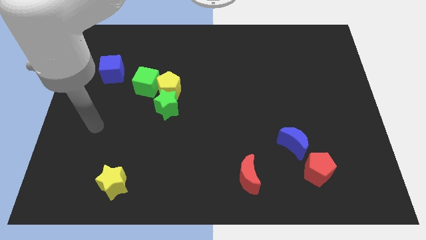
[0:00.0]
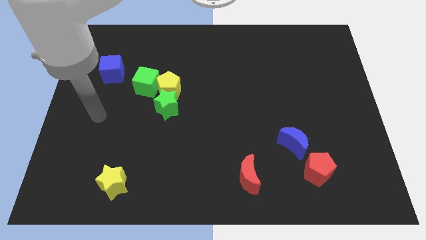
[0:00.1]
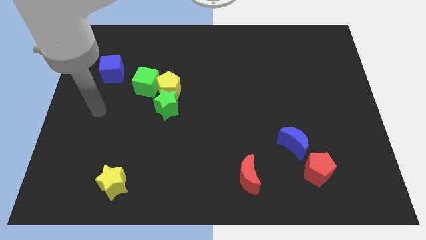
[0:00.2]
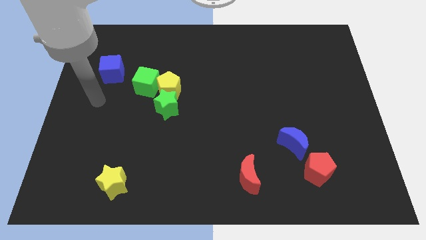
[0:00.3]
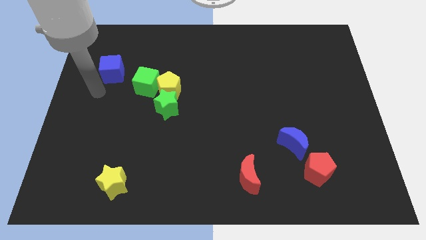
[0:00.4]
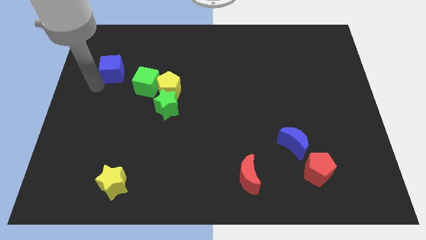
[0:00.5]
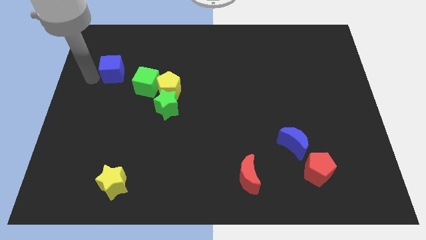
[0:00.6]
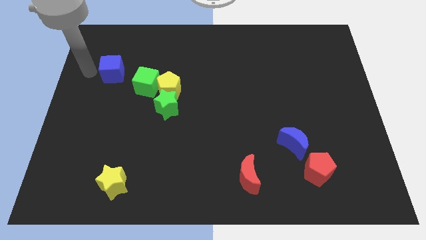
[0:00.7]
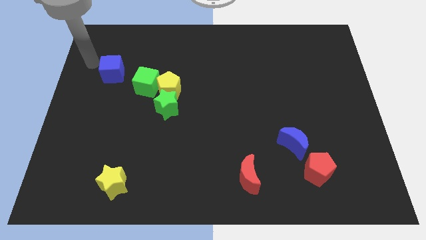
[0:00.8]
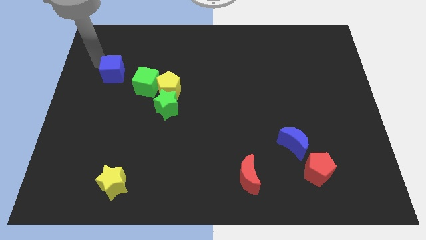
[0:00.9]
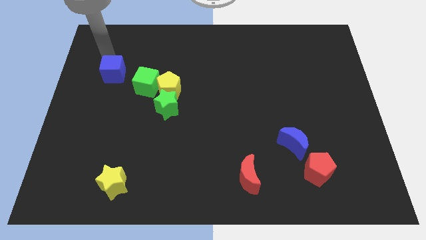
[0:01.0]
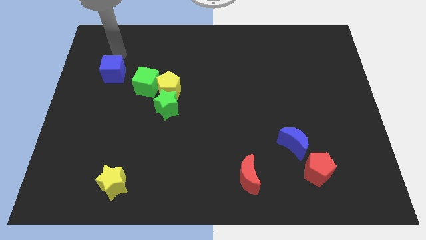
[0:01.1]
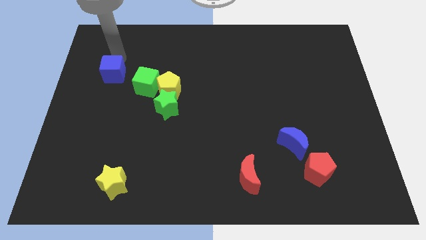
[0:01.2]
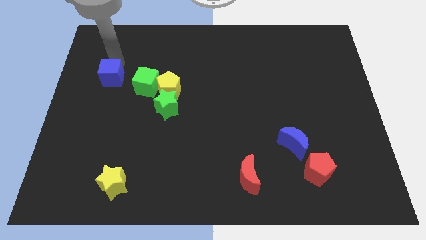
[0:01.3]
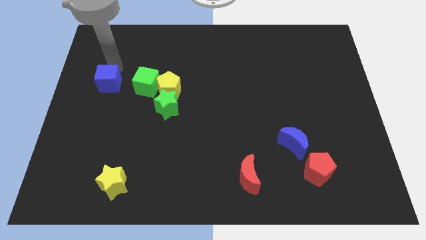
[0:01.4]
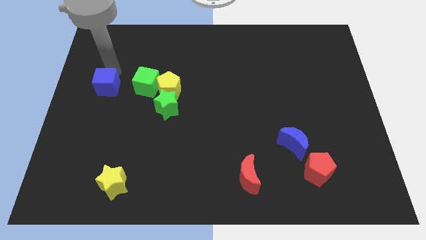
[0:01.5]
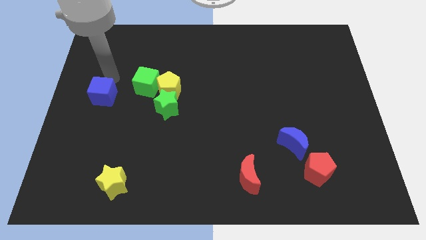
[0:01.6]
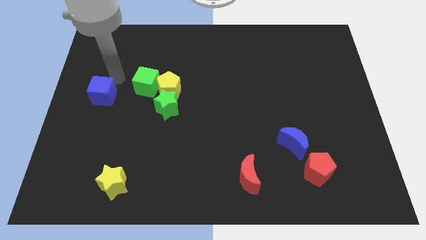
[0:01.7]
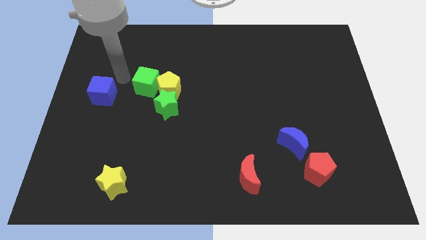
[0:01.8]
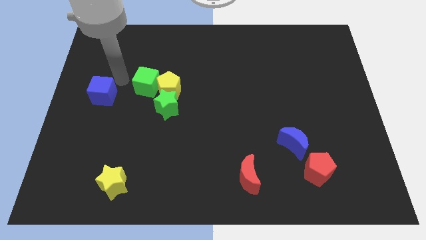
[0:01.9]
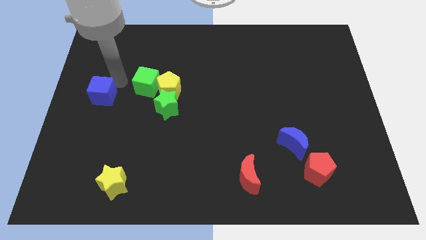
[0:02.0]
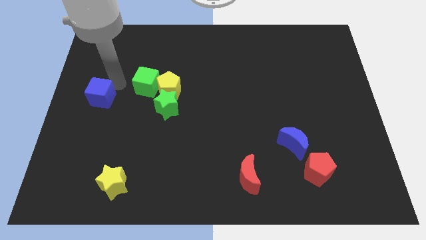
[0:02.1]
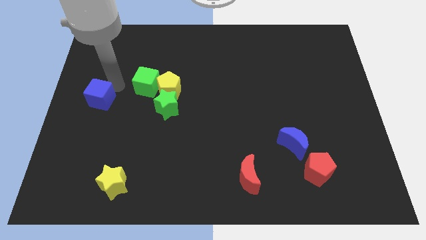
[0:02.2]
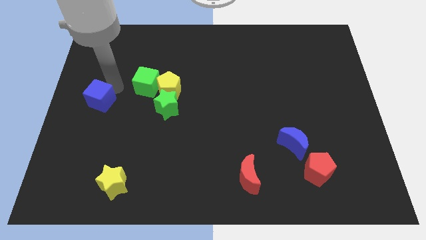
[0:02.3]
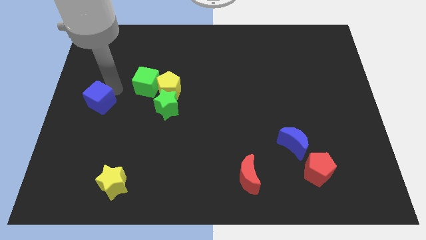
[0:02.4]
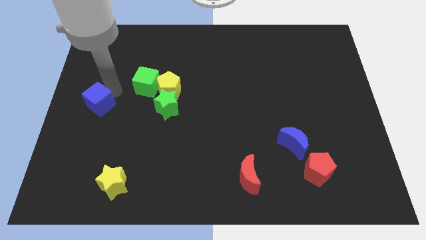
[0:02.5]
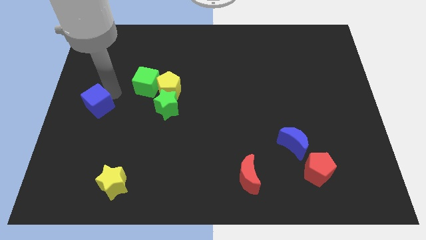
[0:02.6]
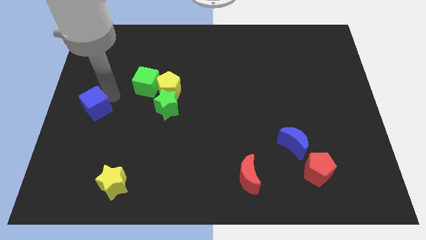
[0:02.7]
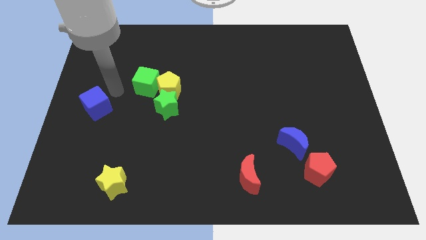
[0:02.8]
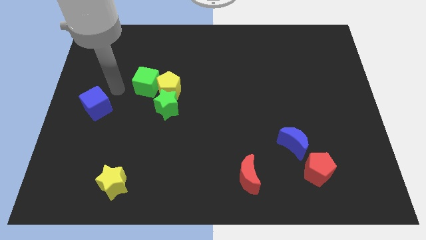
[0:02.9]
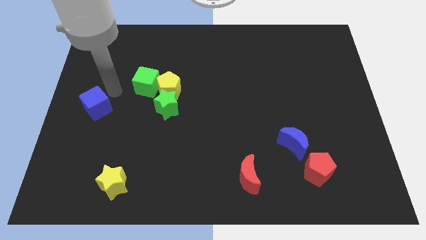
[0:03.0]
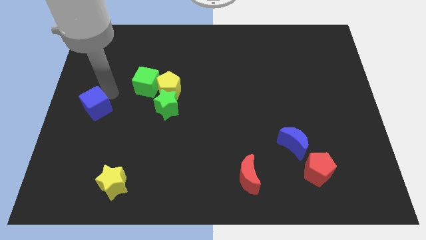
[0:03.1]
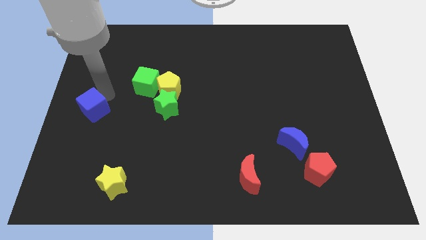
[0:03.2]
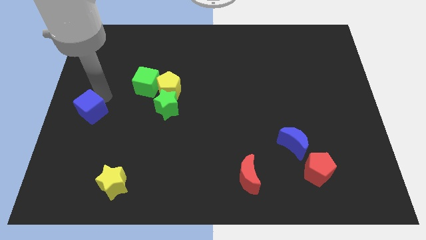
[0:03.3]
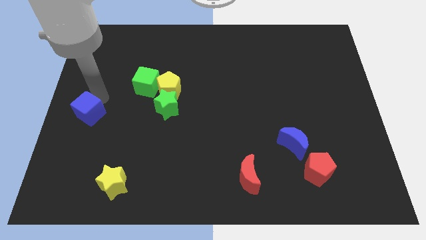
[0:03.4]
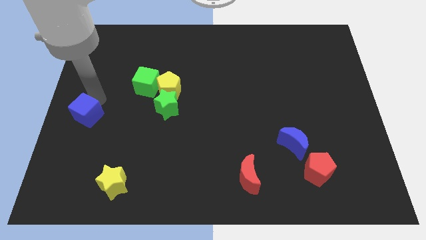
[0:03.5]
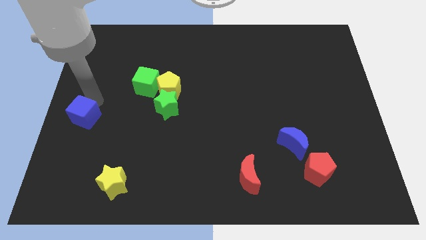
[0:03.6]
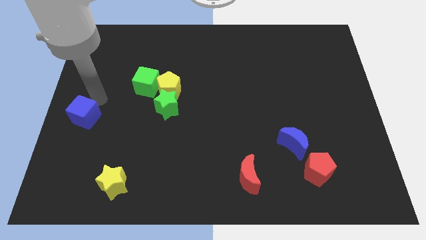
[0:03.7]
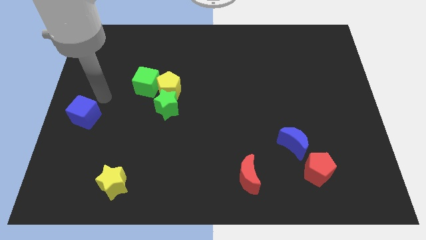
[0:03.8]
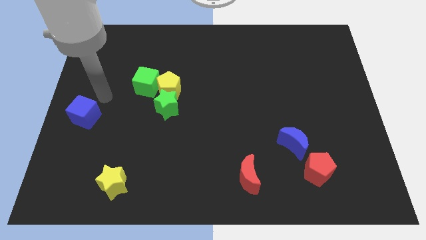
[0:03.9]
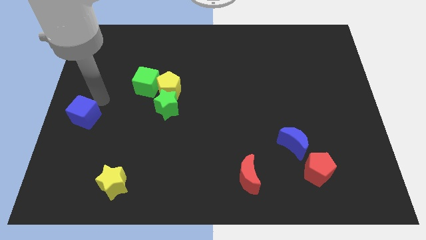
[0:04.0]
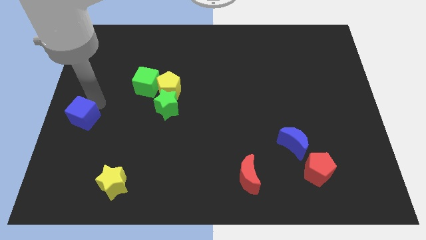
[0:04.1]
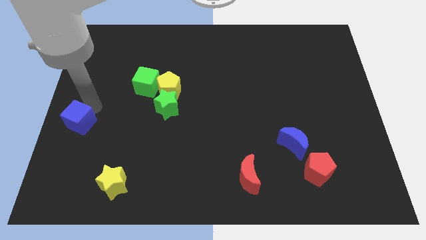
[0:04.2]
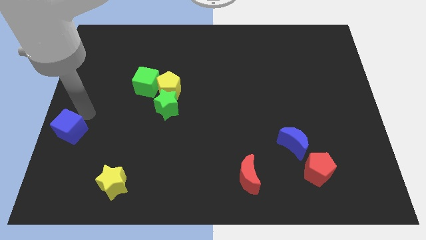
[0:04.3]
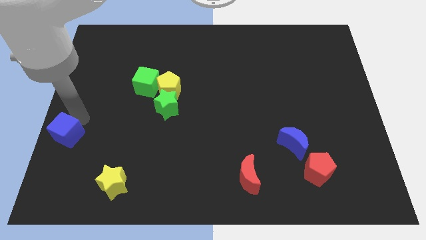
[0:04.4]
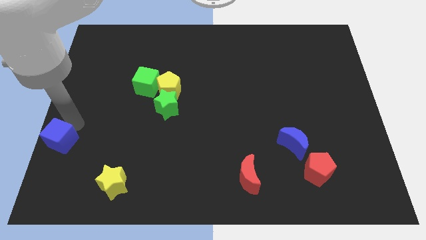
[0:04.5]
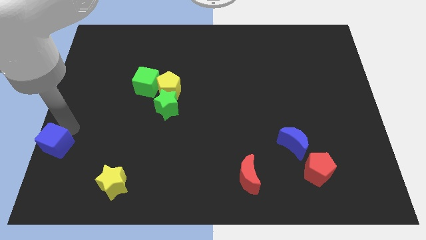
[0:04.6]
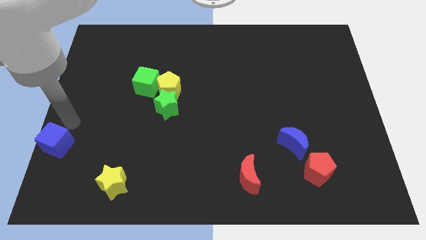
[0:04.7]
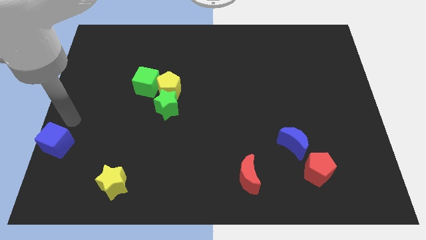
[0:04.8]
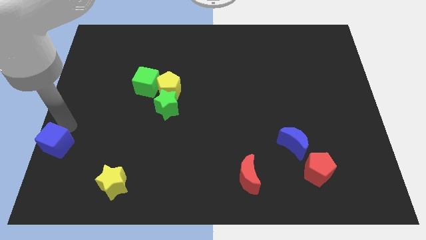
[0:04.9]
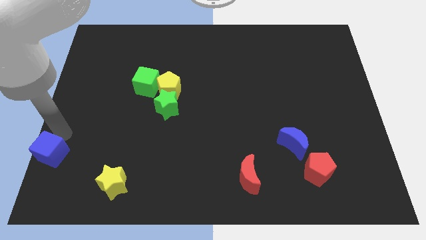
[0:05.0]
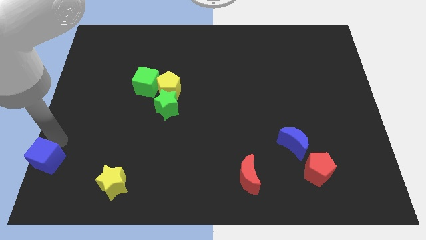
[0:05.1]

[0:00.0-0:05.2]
move the blue cube to the bottom left

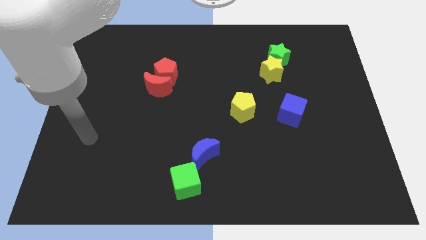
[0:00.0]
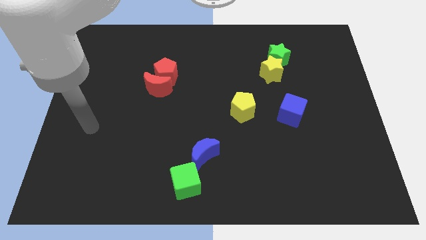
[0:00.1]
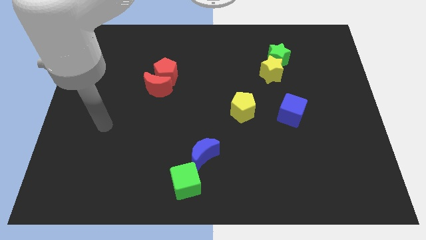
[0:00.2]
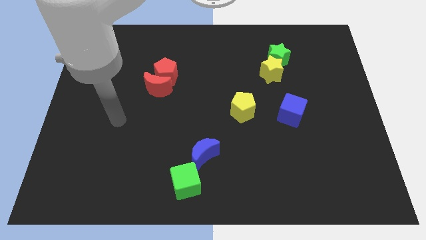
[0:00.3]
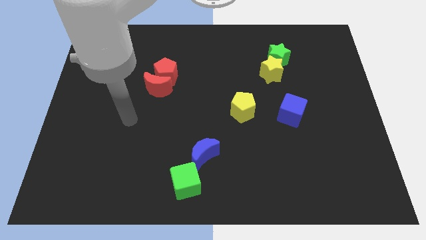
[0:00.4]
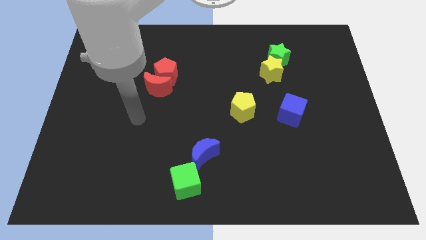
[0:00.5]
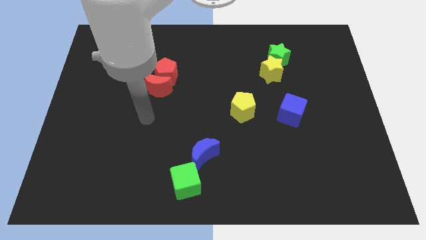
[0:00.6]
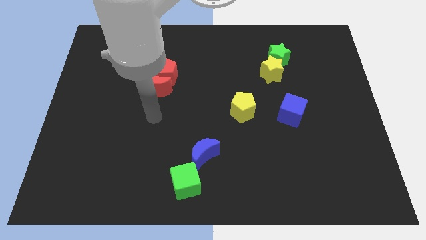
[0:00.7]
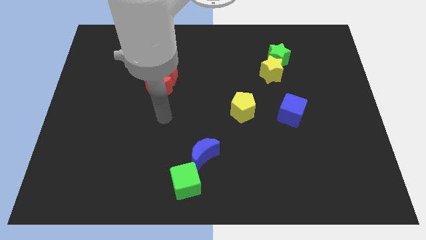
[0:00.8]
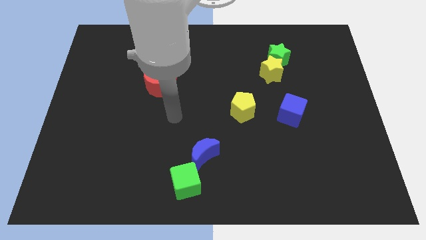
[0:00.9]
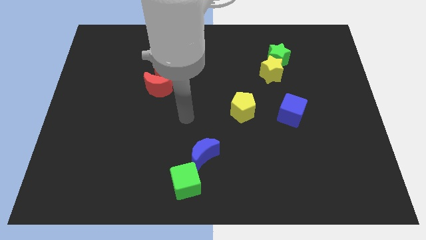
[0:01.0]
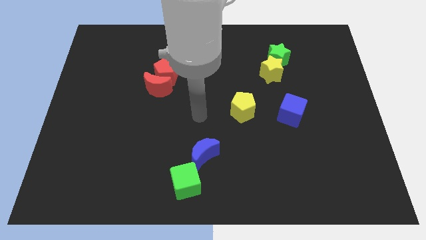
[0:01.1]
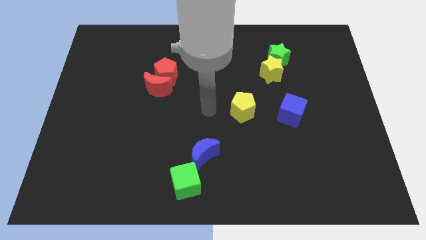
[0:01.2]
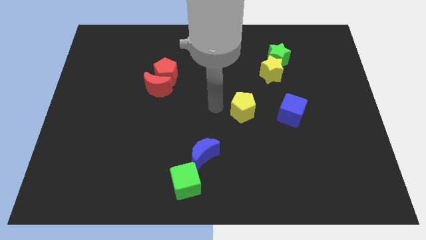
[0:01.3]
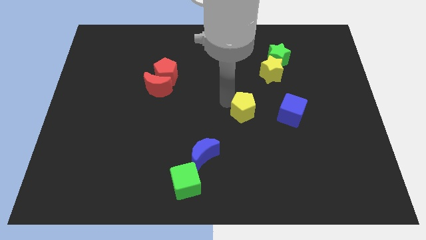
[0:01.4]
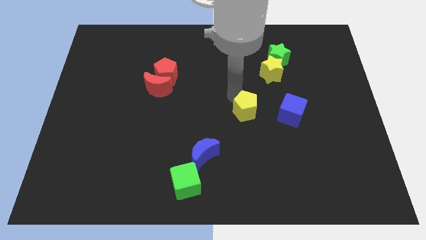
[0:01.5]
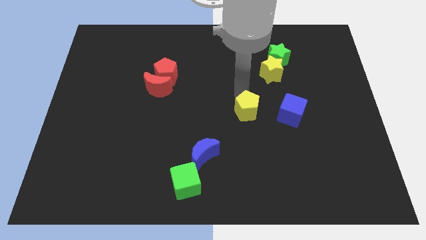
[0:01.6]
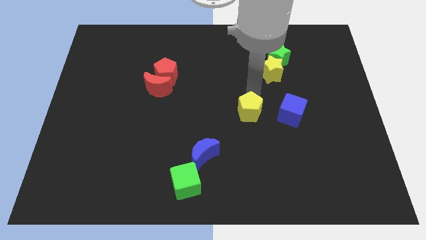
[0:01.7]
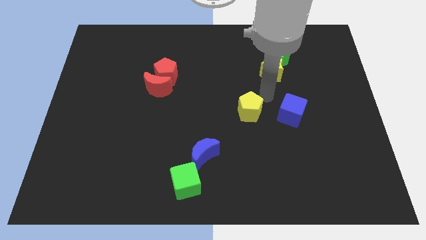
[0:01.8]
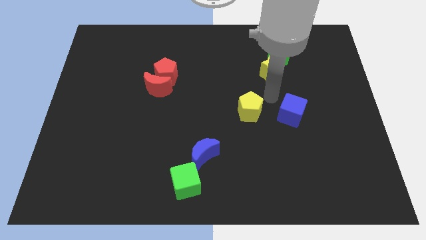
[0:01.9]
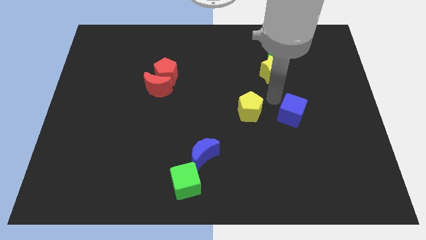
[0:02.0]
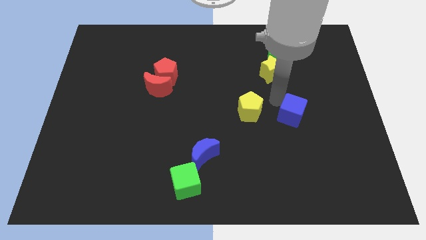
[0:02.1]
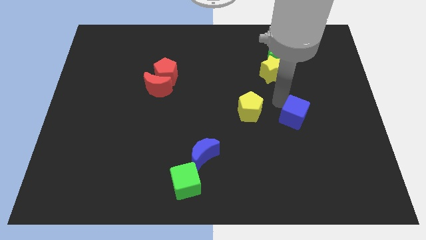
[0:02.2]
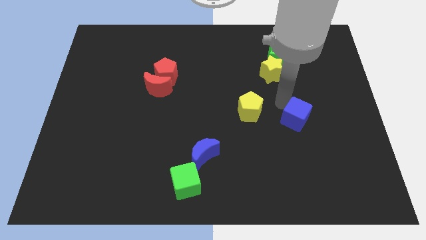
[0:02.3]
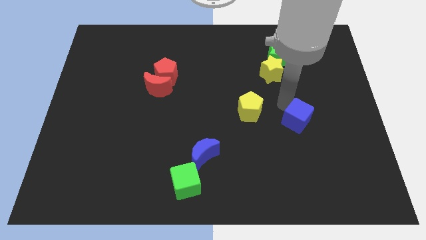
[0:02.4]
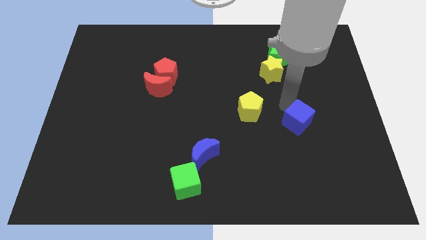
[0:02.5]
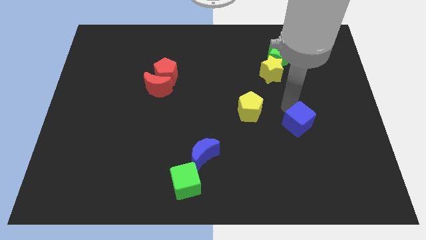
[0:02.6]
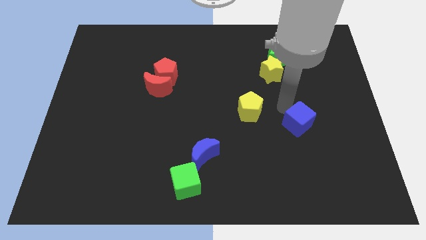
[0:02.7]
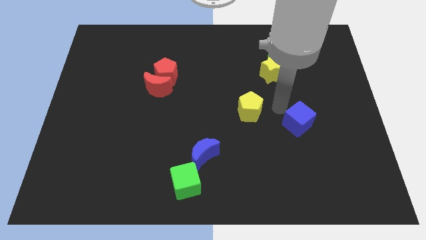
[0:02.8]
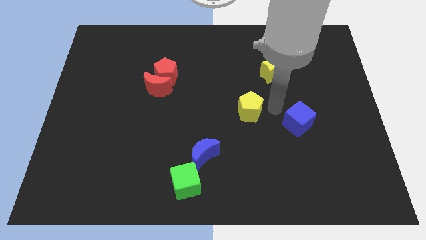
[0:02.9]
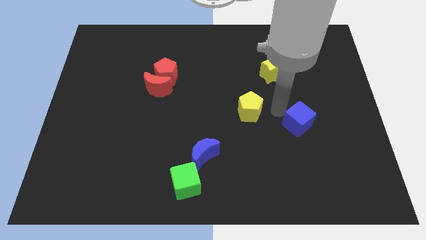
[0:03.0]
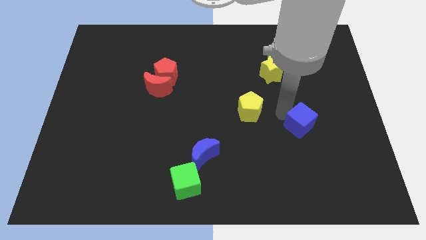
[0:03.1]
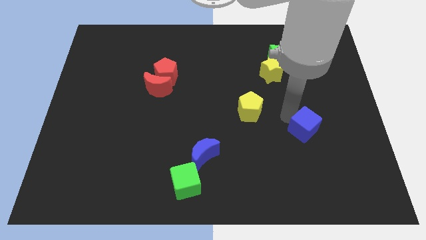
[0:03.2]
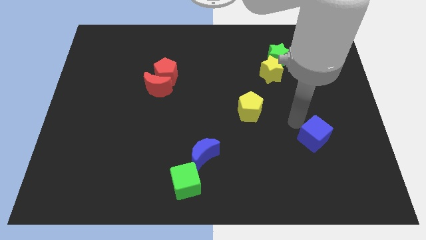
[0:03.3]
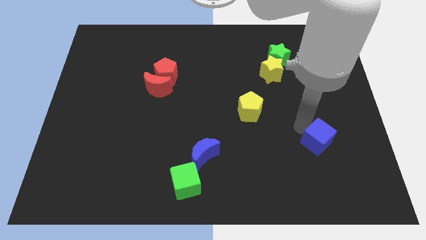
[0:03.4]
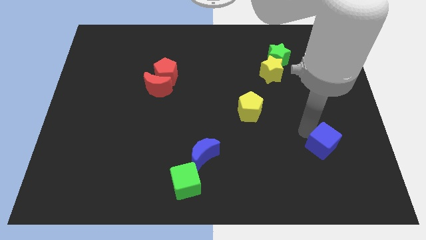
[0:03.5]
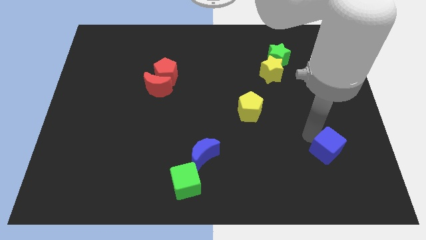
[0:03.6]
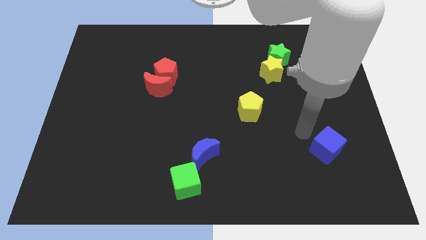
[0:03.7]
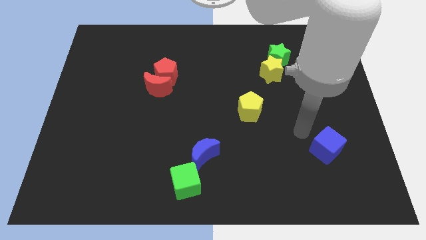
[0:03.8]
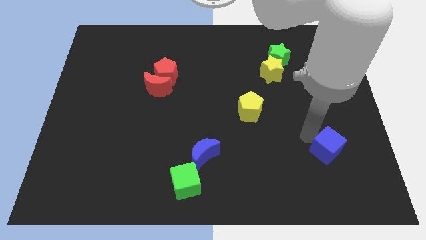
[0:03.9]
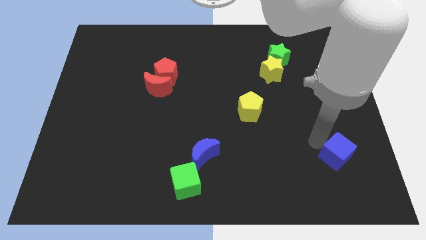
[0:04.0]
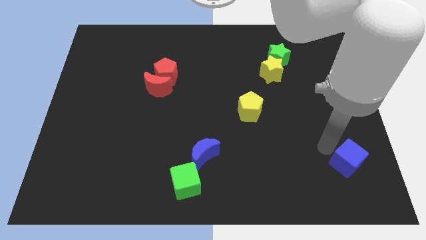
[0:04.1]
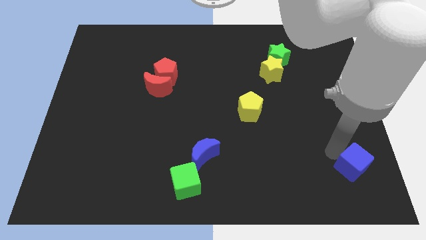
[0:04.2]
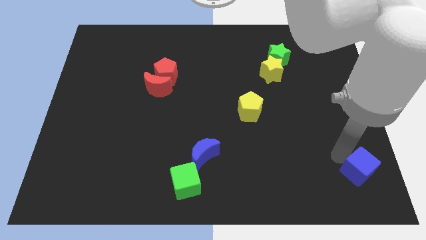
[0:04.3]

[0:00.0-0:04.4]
put the blue cube to the bottom right corner
